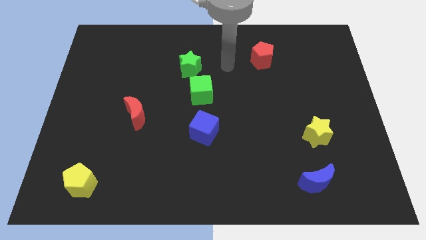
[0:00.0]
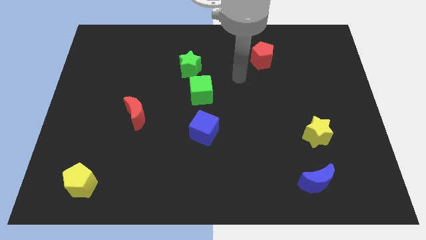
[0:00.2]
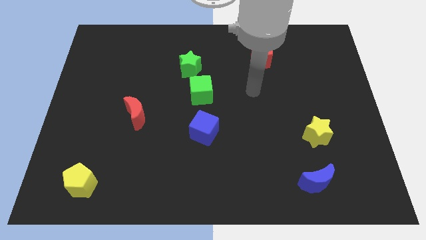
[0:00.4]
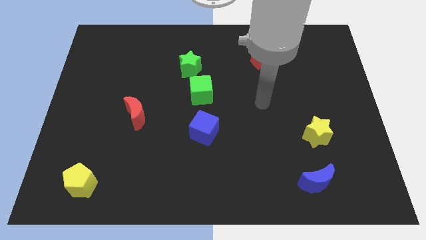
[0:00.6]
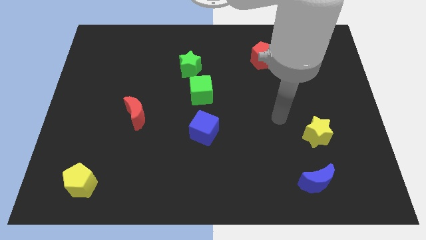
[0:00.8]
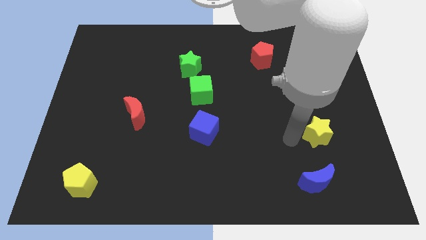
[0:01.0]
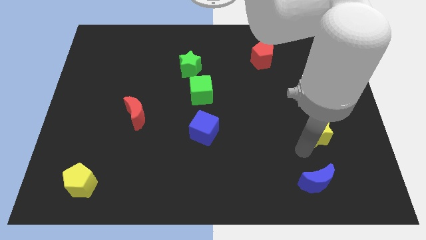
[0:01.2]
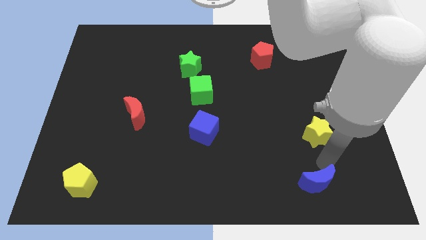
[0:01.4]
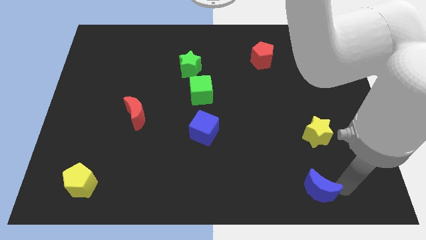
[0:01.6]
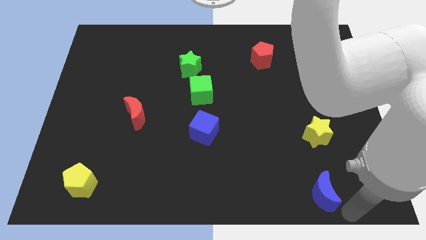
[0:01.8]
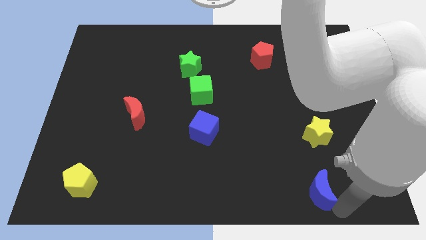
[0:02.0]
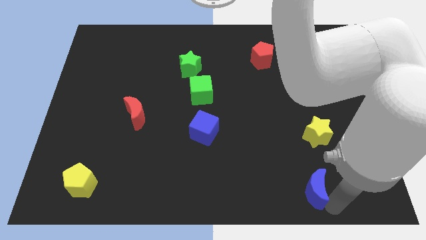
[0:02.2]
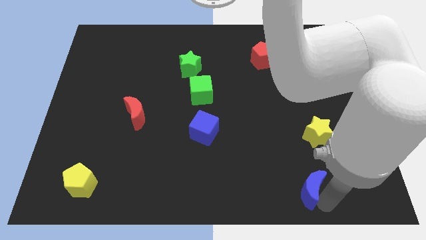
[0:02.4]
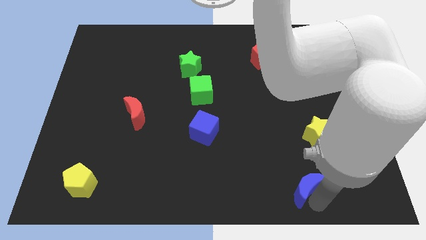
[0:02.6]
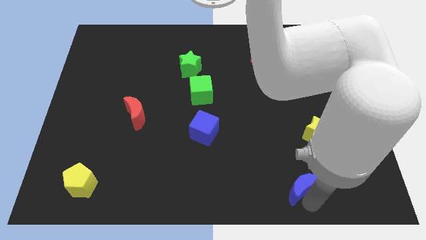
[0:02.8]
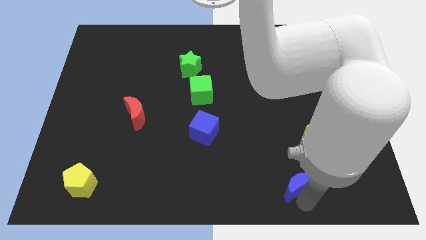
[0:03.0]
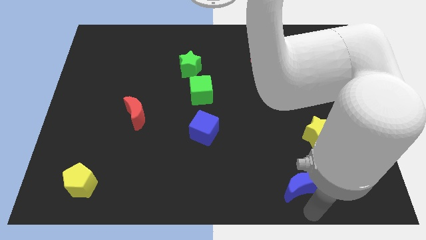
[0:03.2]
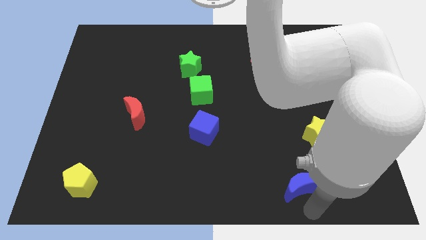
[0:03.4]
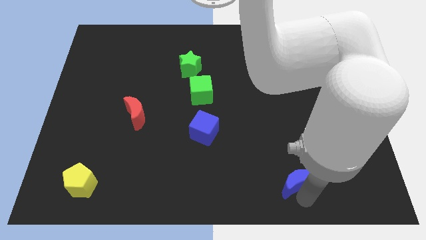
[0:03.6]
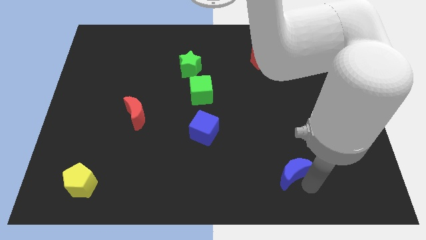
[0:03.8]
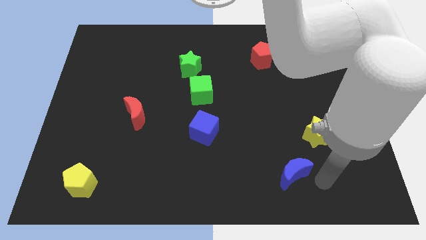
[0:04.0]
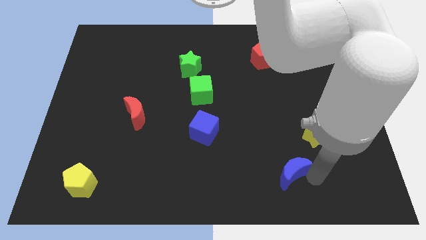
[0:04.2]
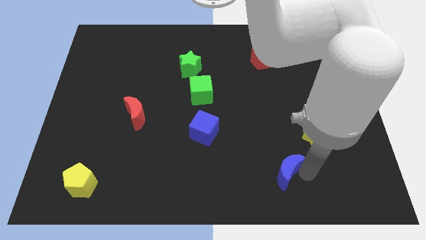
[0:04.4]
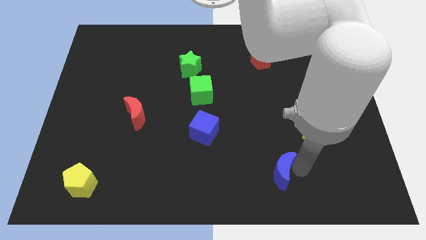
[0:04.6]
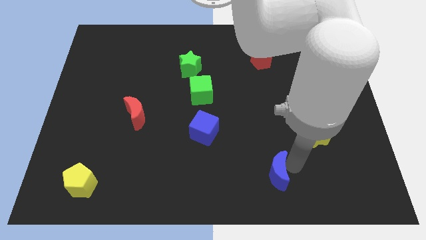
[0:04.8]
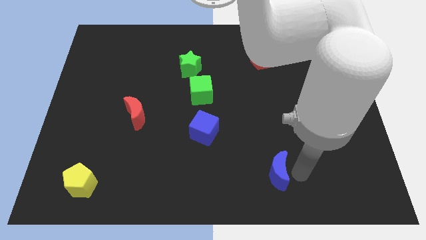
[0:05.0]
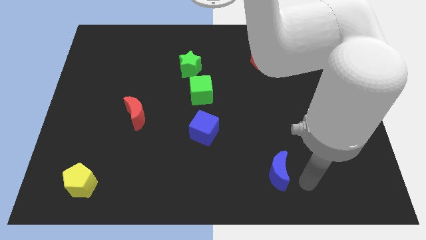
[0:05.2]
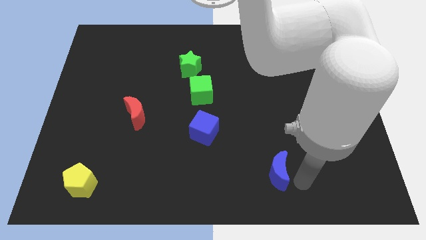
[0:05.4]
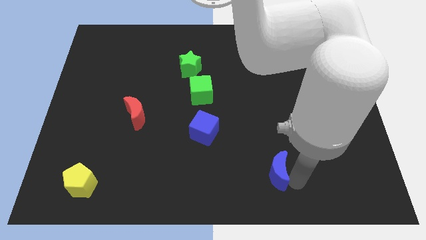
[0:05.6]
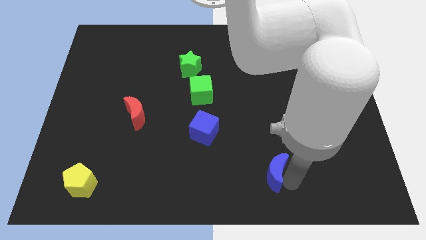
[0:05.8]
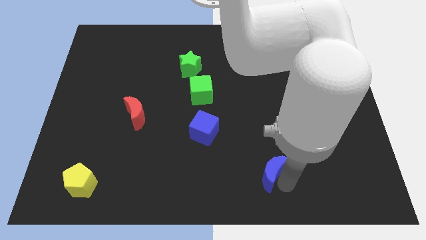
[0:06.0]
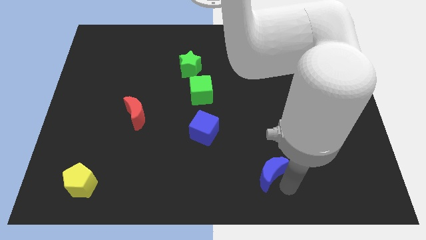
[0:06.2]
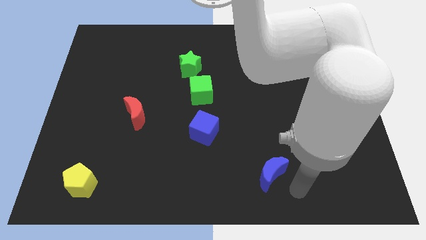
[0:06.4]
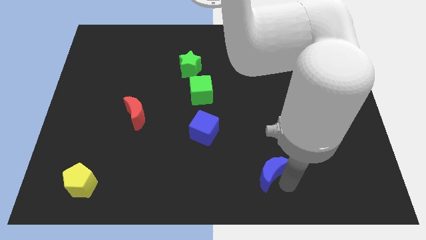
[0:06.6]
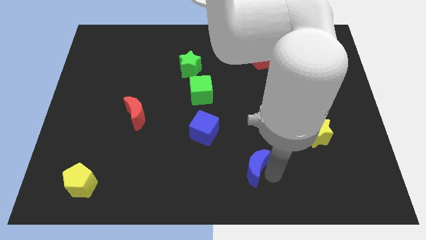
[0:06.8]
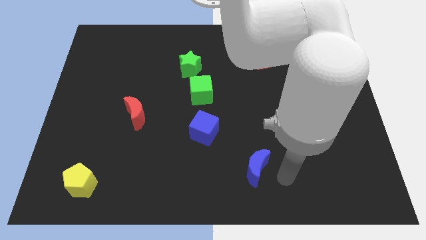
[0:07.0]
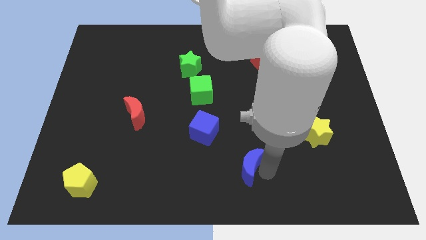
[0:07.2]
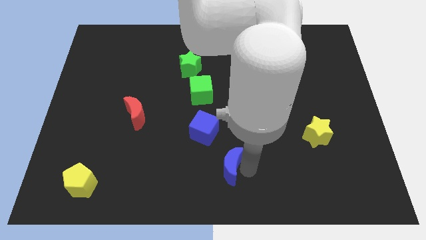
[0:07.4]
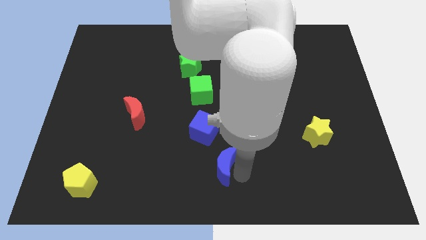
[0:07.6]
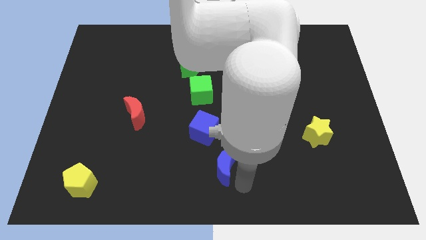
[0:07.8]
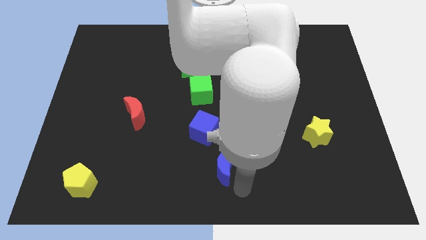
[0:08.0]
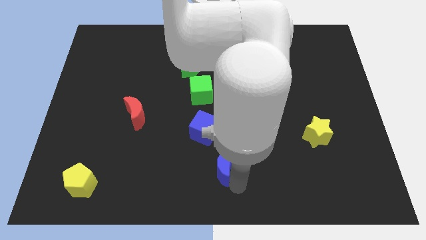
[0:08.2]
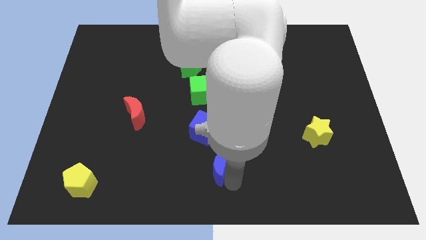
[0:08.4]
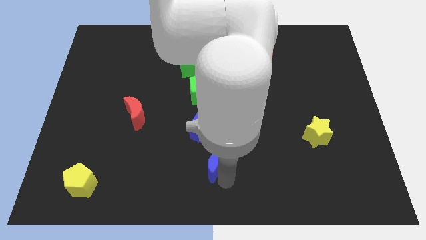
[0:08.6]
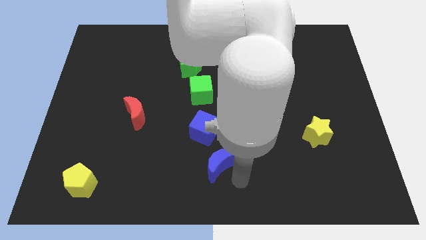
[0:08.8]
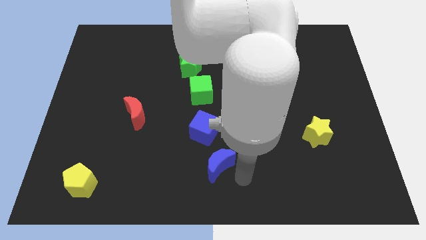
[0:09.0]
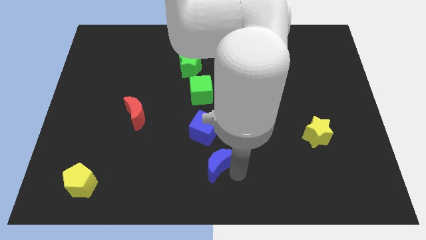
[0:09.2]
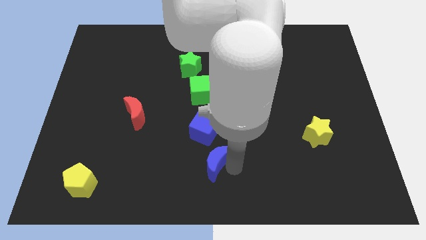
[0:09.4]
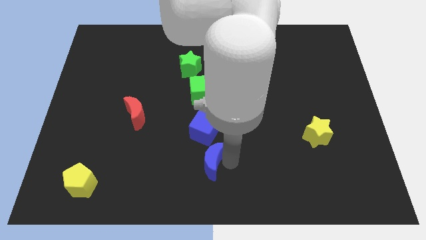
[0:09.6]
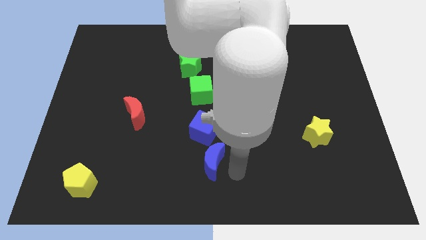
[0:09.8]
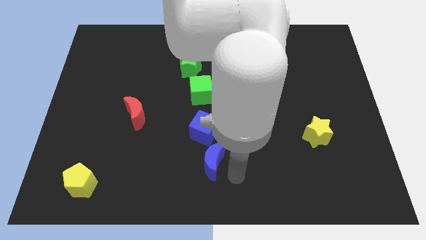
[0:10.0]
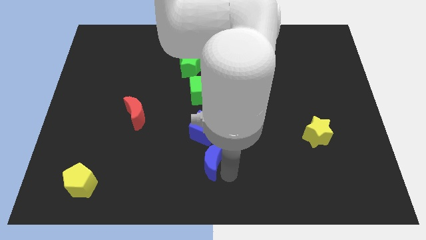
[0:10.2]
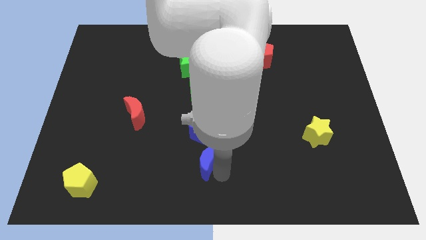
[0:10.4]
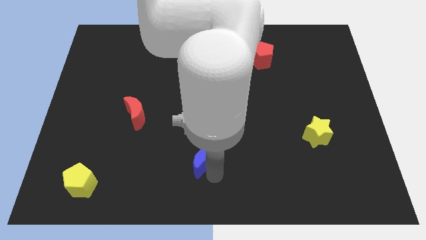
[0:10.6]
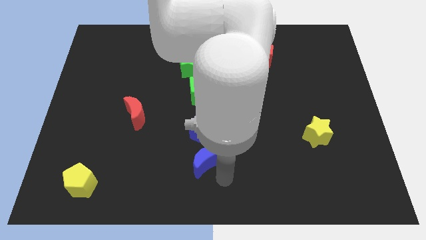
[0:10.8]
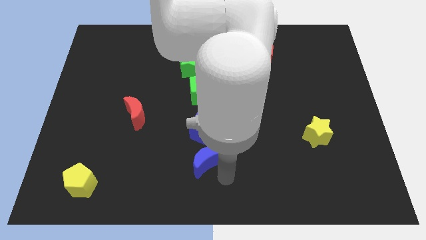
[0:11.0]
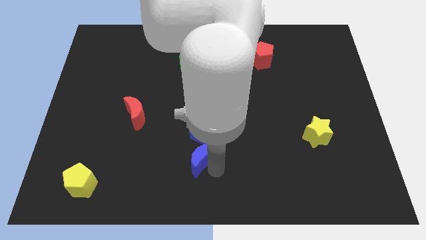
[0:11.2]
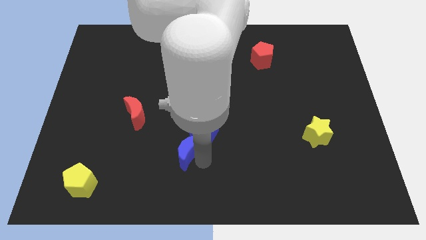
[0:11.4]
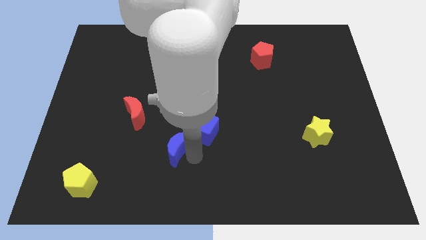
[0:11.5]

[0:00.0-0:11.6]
push the blue moon to the left of the blue cube

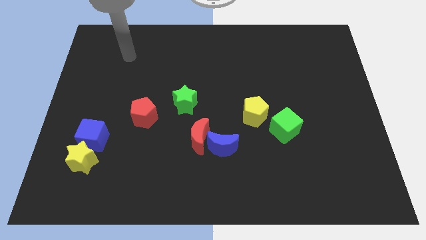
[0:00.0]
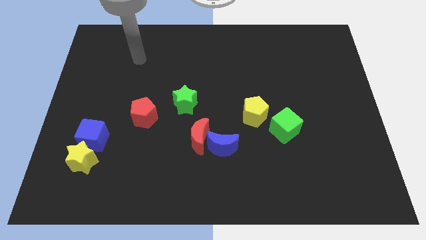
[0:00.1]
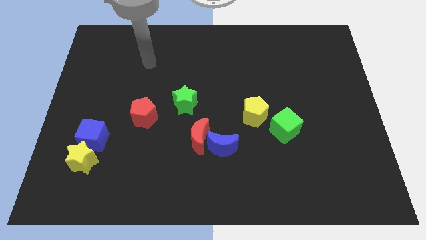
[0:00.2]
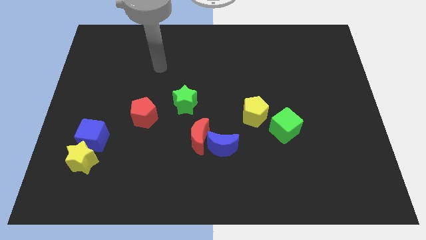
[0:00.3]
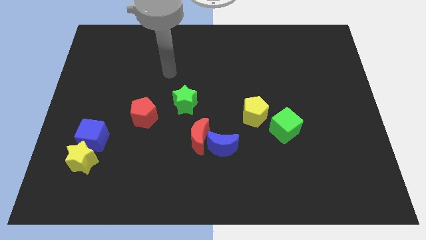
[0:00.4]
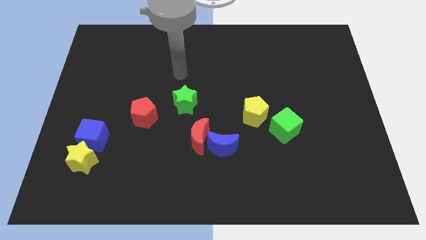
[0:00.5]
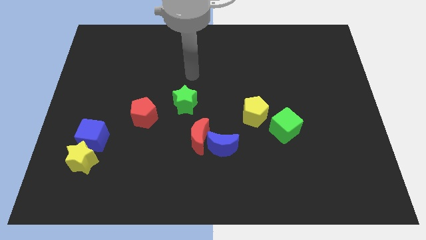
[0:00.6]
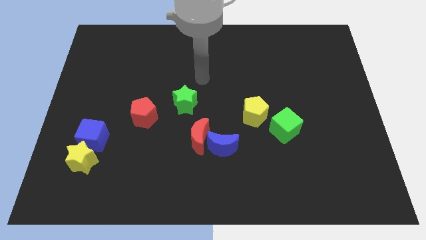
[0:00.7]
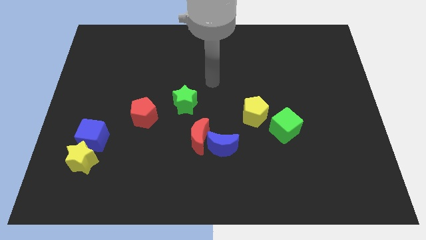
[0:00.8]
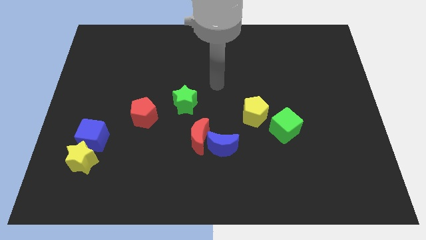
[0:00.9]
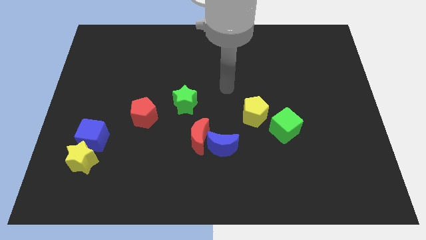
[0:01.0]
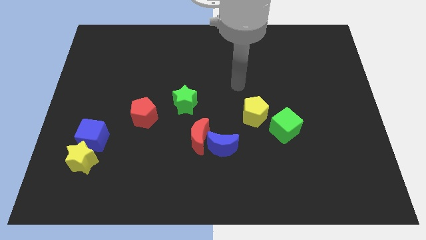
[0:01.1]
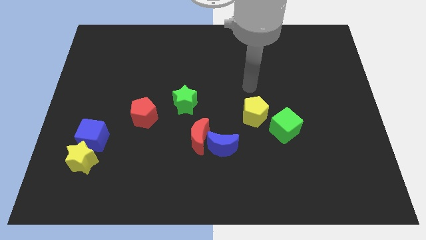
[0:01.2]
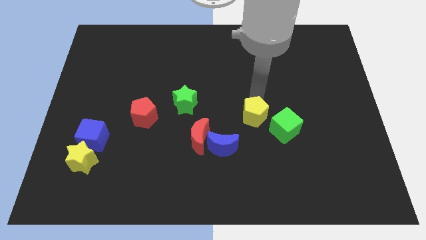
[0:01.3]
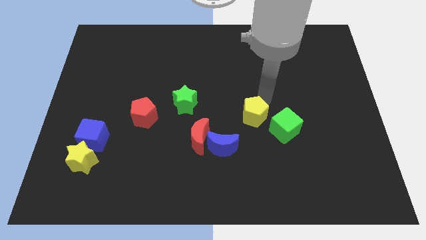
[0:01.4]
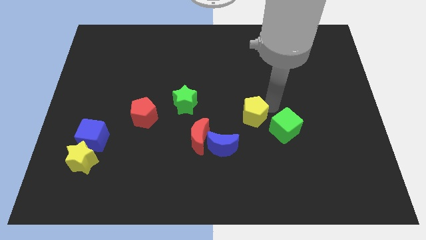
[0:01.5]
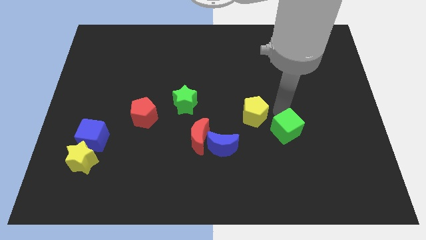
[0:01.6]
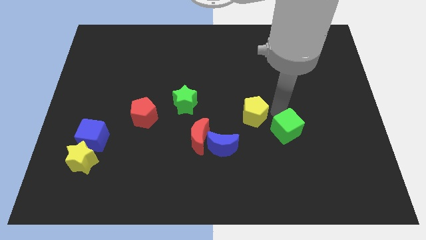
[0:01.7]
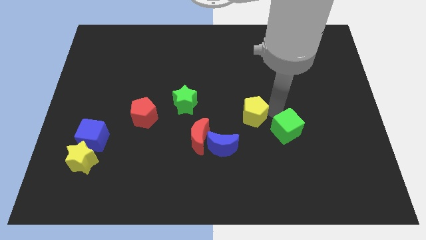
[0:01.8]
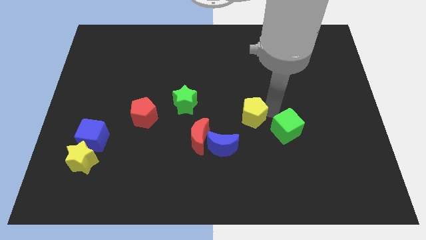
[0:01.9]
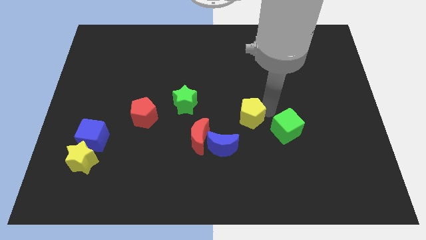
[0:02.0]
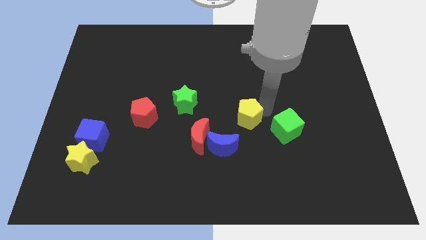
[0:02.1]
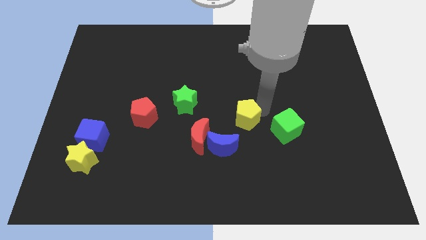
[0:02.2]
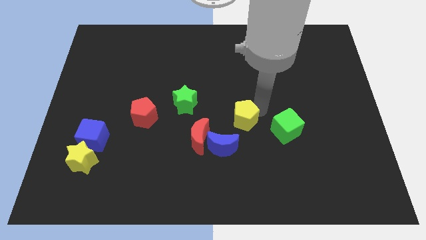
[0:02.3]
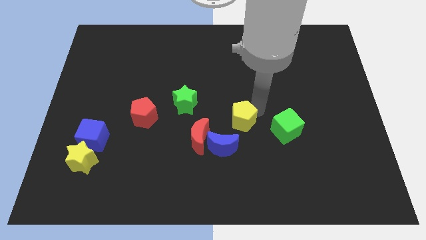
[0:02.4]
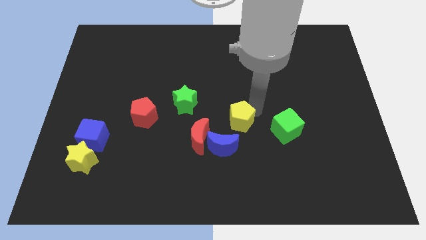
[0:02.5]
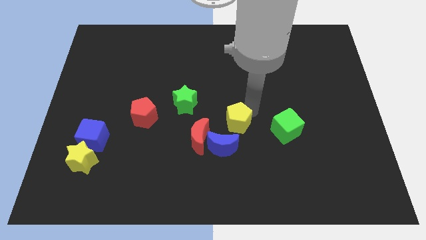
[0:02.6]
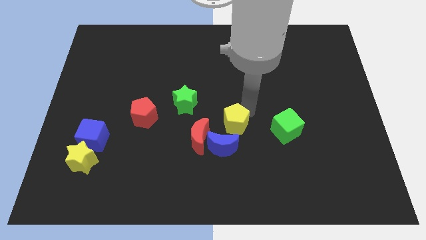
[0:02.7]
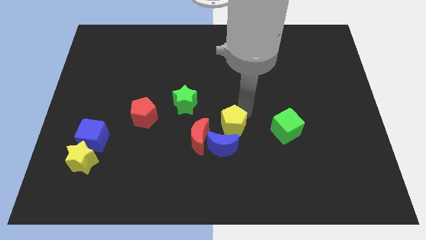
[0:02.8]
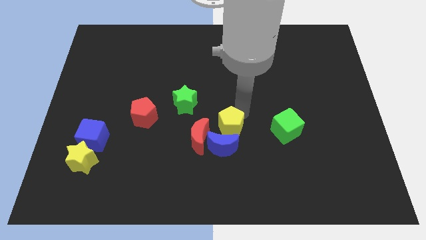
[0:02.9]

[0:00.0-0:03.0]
push the yellow pentagon to the bottom right of the green star
